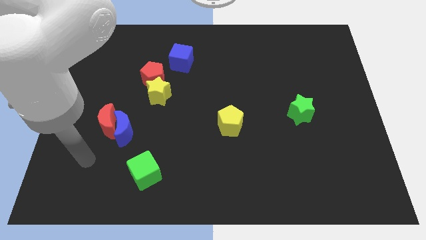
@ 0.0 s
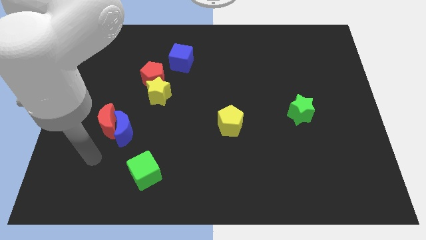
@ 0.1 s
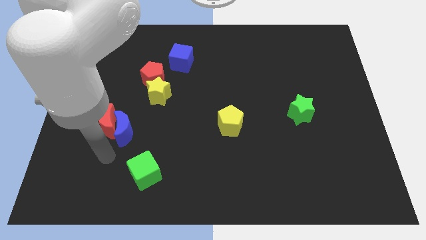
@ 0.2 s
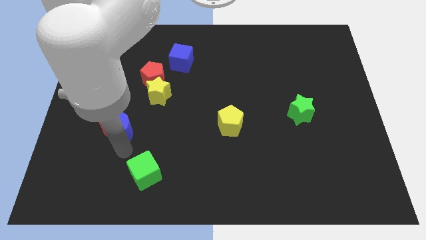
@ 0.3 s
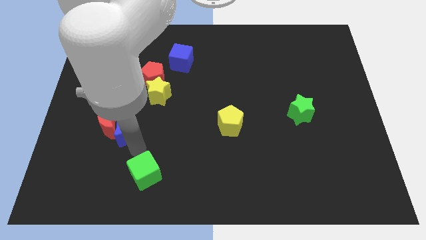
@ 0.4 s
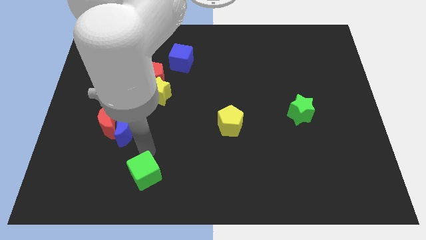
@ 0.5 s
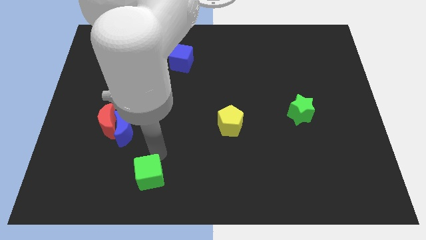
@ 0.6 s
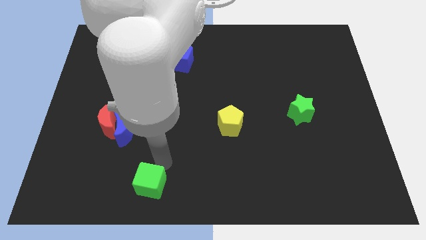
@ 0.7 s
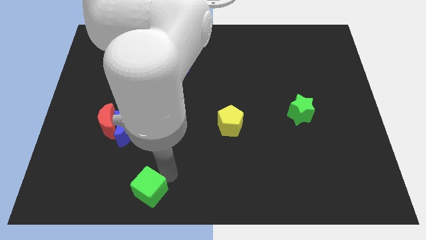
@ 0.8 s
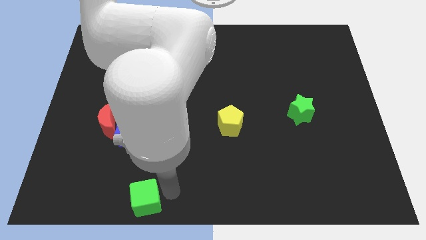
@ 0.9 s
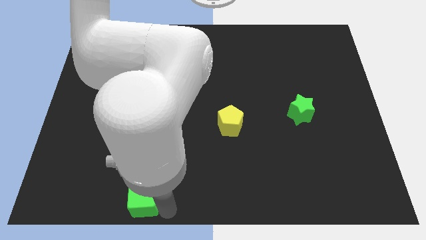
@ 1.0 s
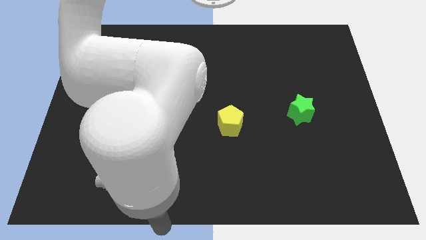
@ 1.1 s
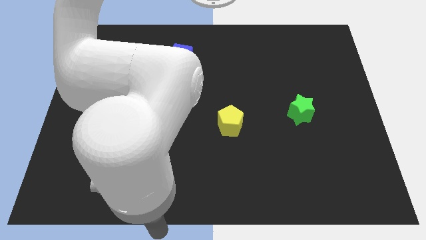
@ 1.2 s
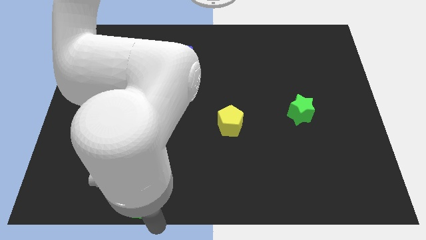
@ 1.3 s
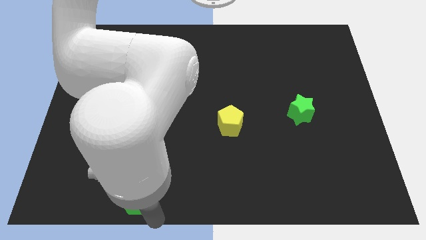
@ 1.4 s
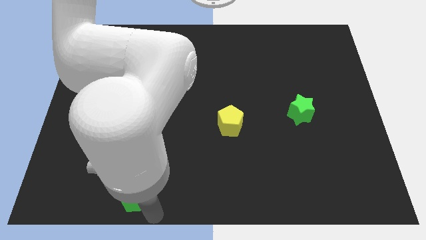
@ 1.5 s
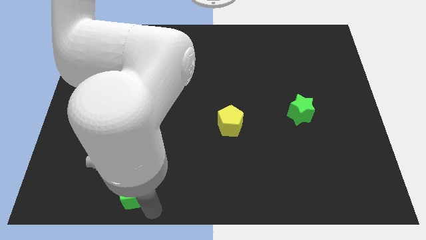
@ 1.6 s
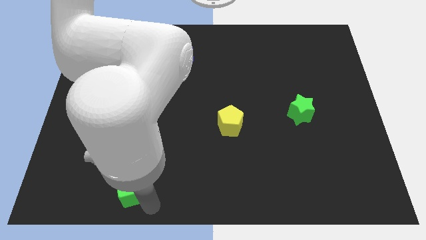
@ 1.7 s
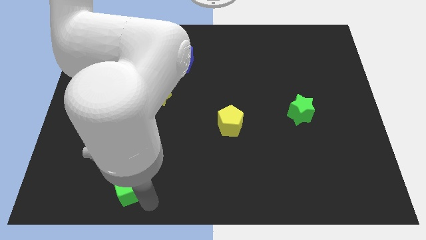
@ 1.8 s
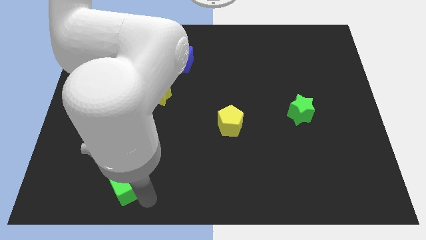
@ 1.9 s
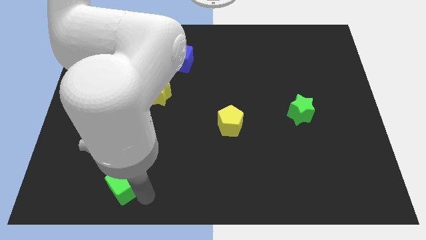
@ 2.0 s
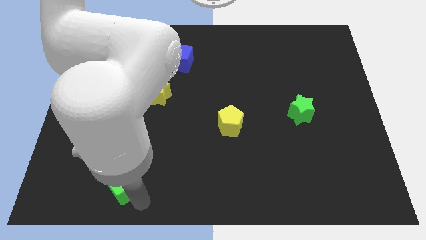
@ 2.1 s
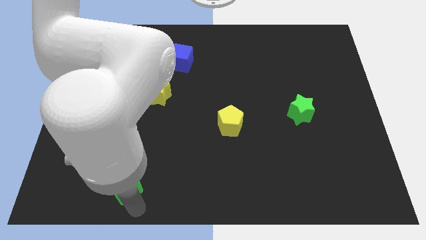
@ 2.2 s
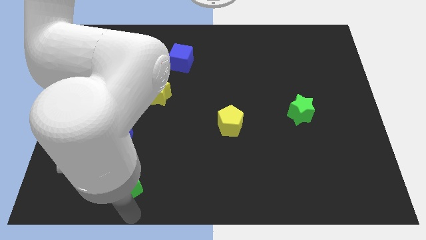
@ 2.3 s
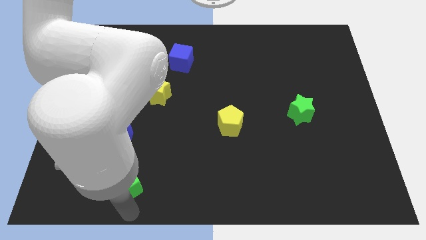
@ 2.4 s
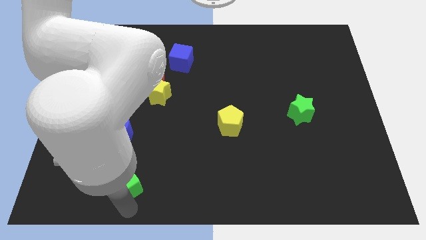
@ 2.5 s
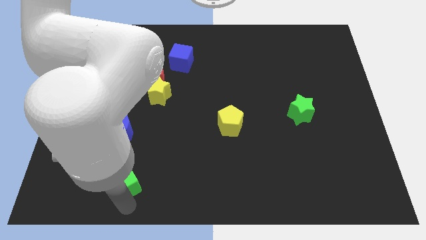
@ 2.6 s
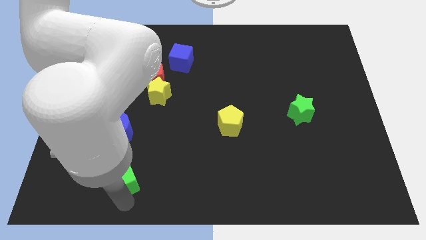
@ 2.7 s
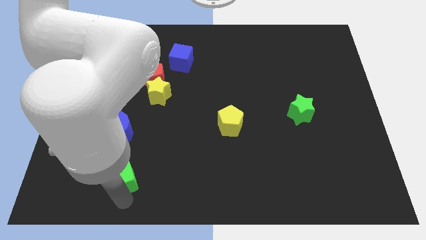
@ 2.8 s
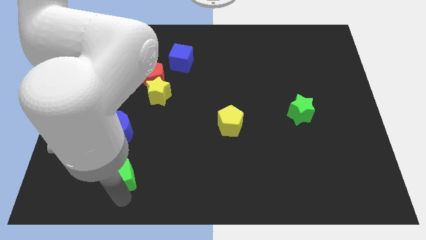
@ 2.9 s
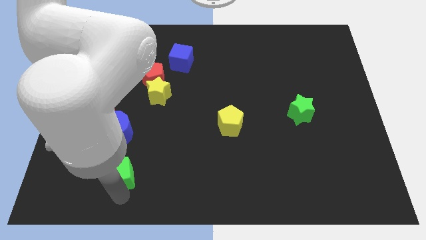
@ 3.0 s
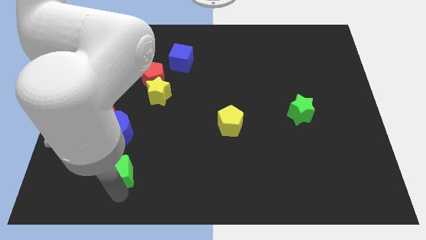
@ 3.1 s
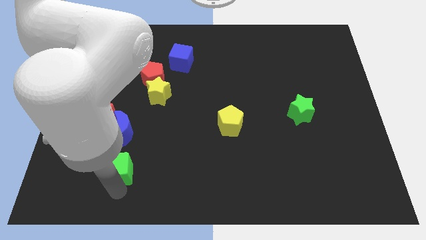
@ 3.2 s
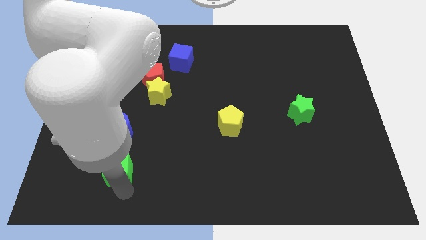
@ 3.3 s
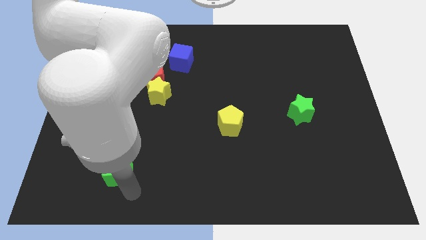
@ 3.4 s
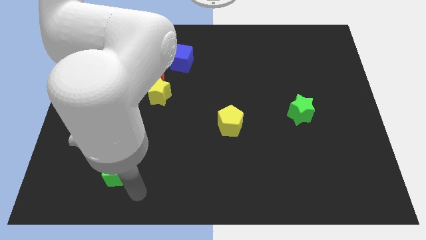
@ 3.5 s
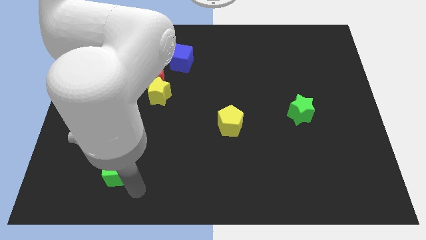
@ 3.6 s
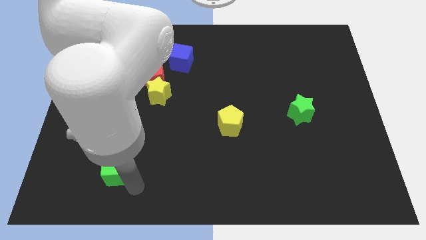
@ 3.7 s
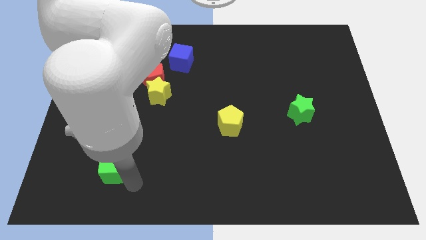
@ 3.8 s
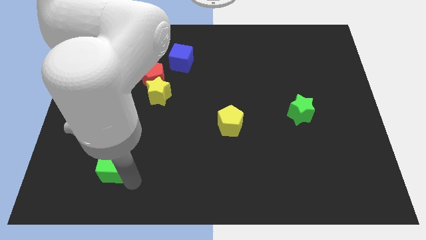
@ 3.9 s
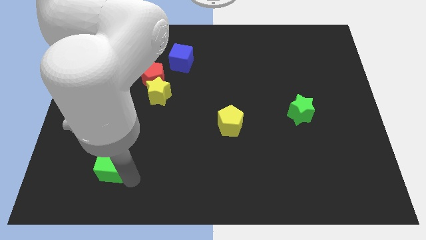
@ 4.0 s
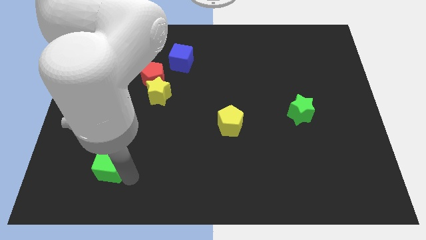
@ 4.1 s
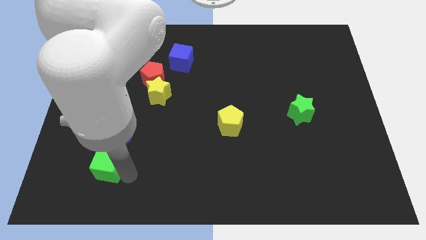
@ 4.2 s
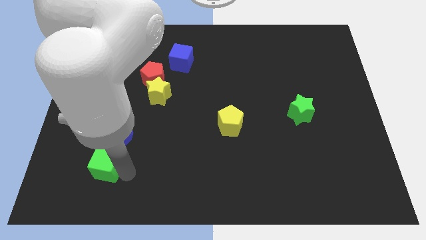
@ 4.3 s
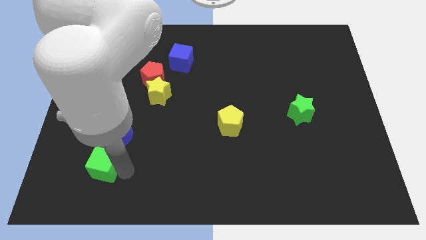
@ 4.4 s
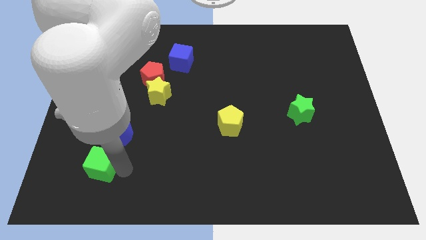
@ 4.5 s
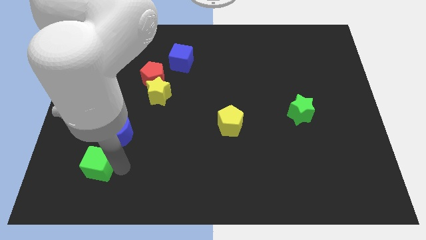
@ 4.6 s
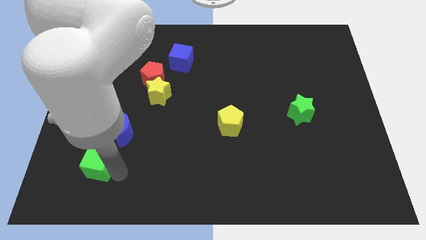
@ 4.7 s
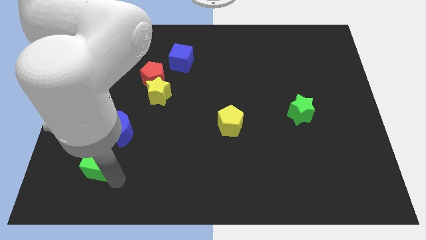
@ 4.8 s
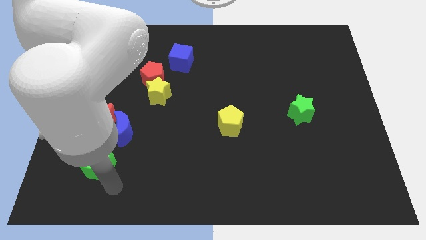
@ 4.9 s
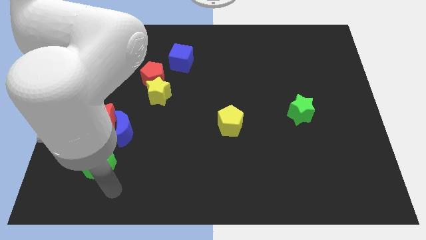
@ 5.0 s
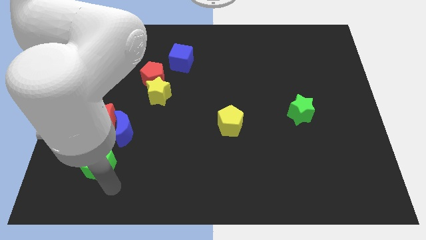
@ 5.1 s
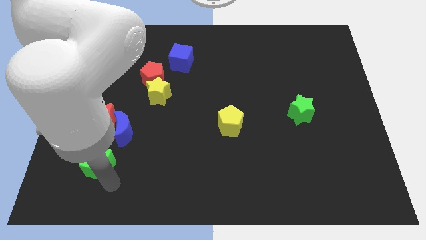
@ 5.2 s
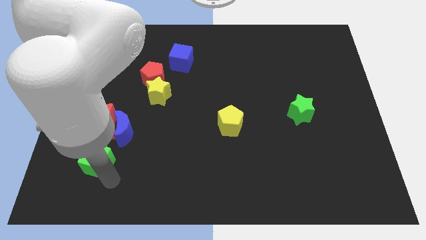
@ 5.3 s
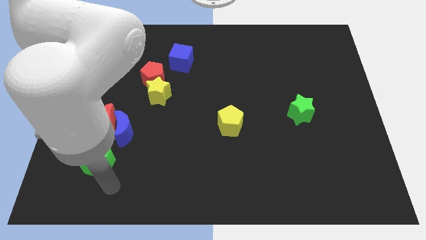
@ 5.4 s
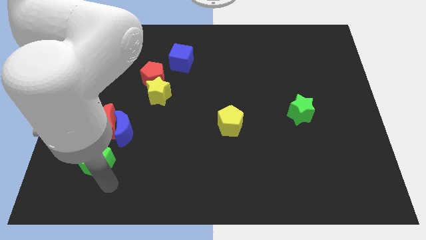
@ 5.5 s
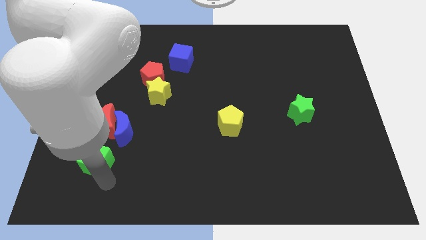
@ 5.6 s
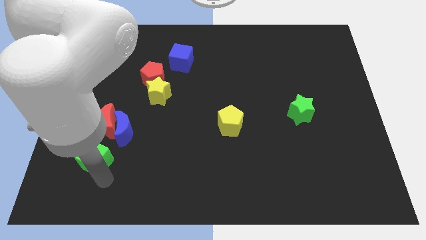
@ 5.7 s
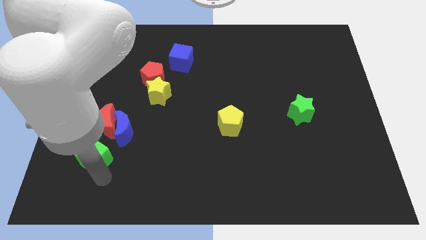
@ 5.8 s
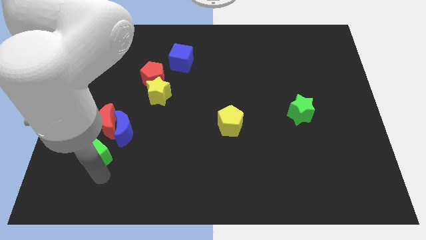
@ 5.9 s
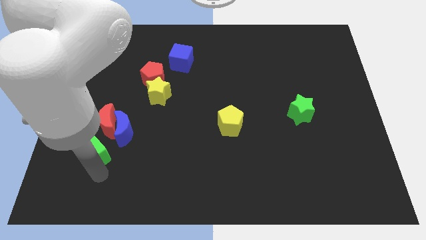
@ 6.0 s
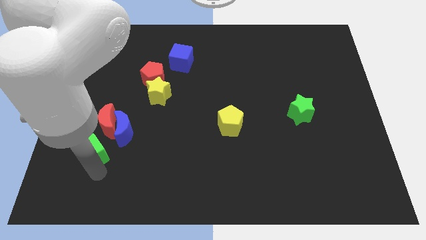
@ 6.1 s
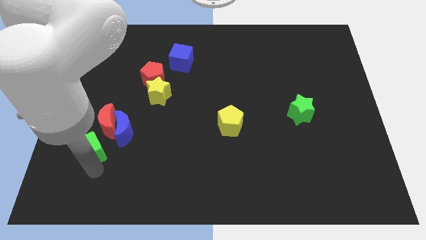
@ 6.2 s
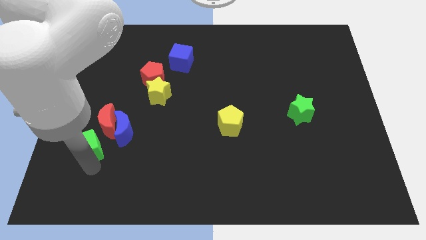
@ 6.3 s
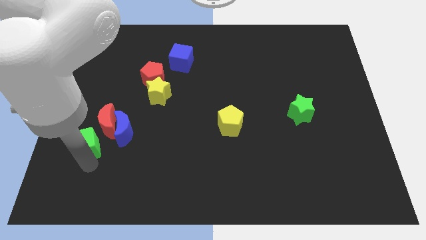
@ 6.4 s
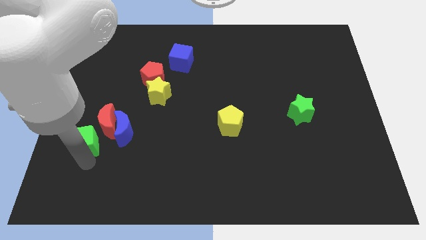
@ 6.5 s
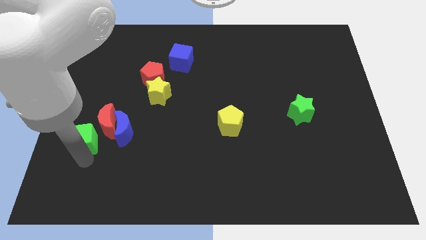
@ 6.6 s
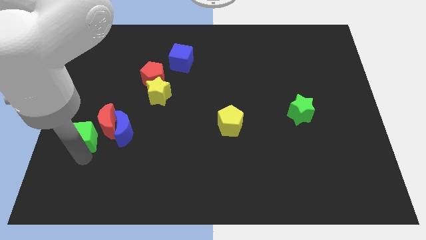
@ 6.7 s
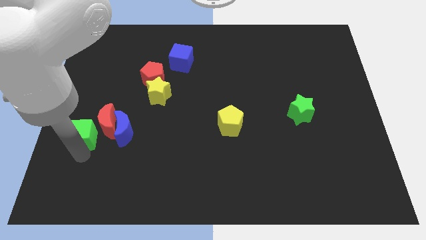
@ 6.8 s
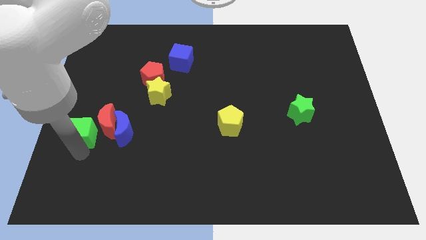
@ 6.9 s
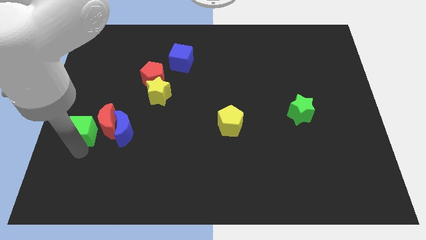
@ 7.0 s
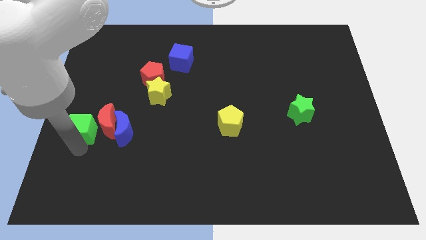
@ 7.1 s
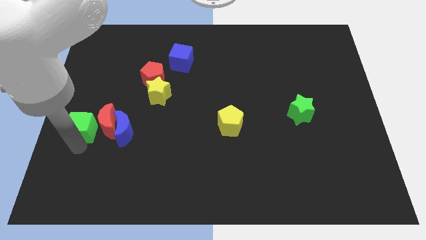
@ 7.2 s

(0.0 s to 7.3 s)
move the green cube diagonally up and to the left of the red moon
